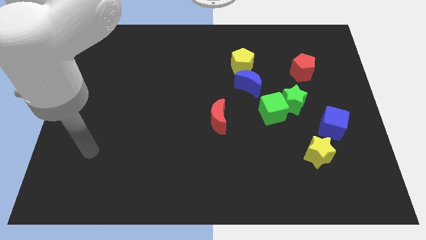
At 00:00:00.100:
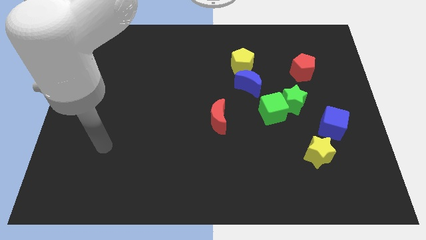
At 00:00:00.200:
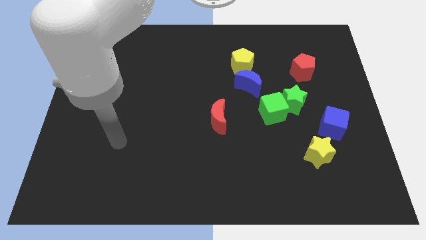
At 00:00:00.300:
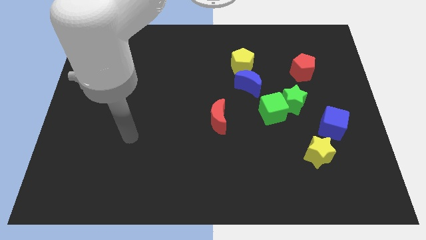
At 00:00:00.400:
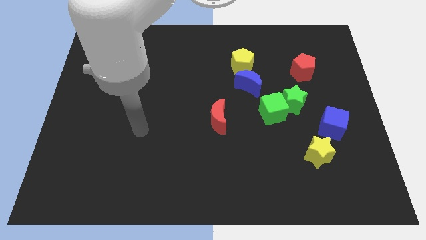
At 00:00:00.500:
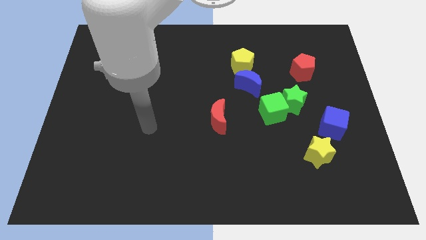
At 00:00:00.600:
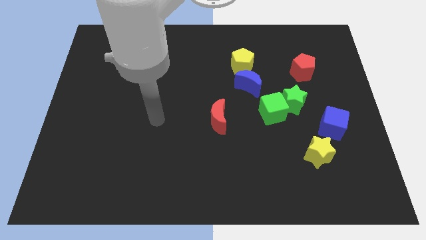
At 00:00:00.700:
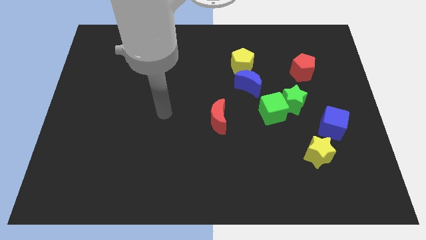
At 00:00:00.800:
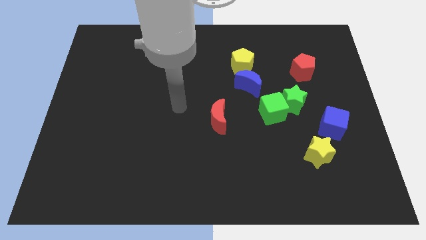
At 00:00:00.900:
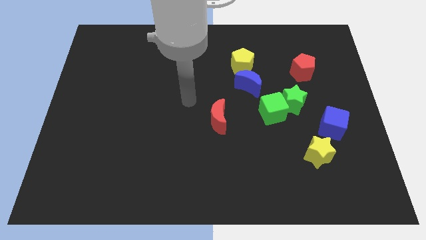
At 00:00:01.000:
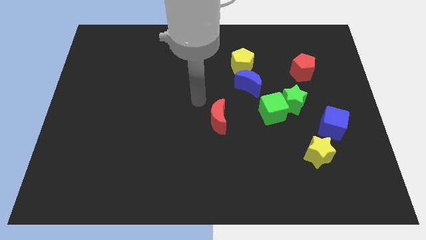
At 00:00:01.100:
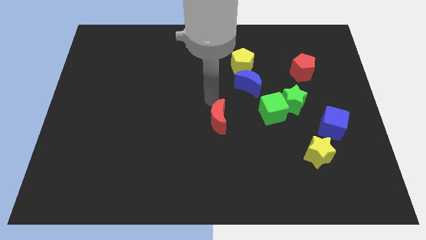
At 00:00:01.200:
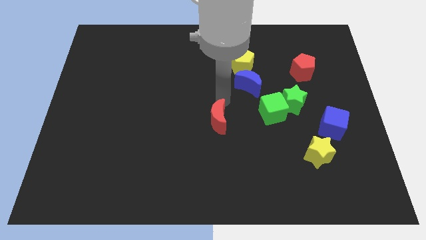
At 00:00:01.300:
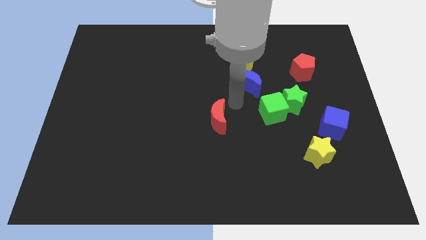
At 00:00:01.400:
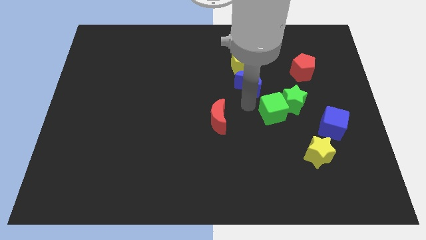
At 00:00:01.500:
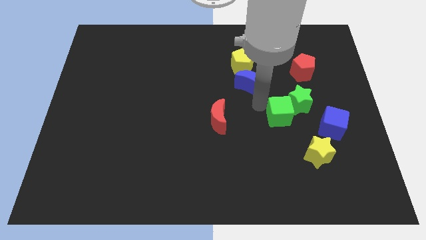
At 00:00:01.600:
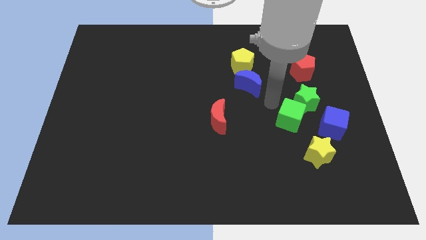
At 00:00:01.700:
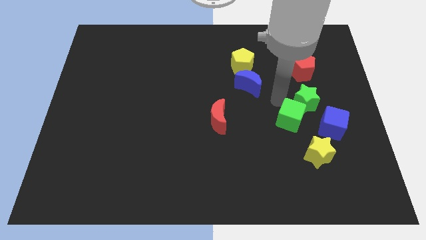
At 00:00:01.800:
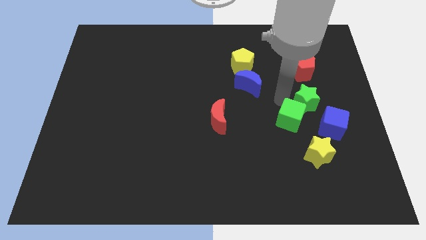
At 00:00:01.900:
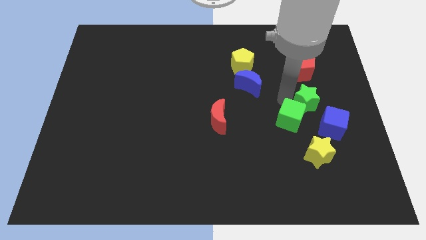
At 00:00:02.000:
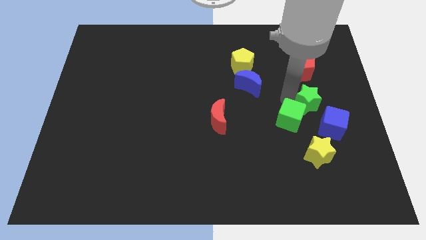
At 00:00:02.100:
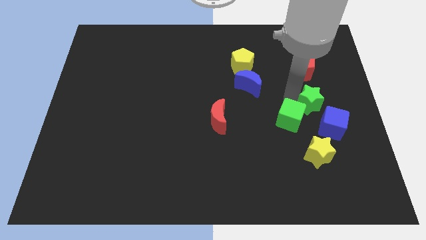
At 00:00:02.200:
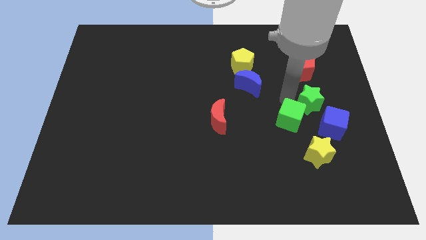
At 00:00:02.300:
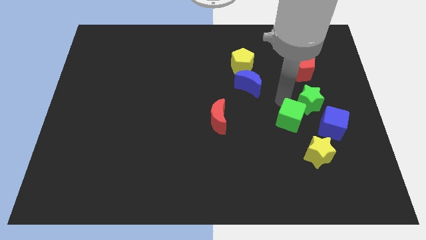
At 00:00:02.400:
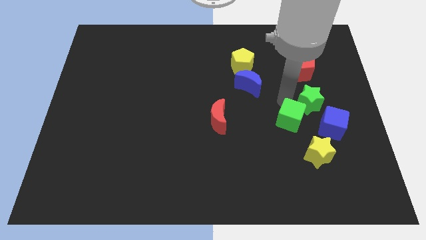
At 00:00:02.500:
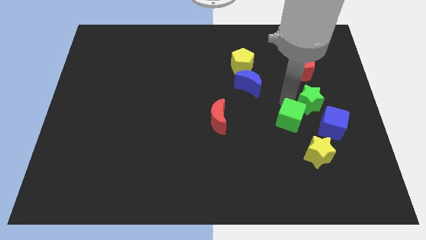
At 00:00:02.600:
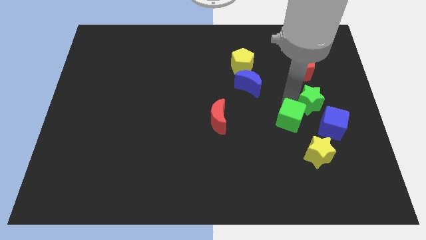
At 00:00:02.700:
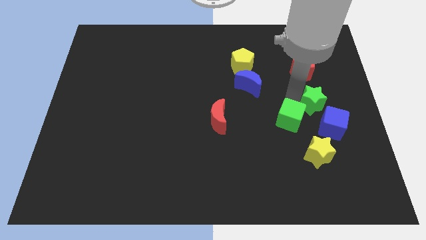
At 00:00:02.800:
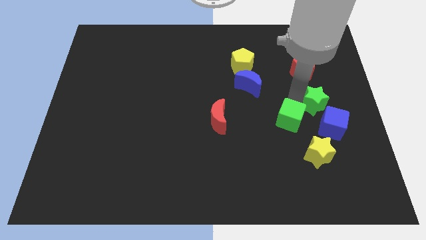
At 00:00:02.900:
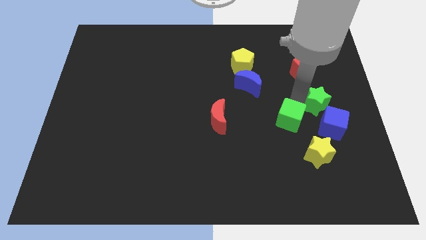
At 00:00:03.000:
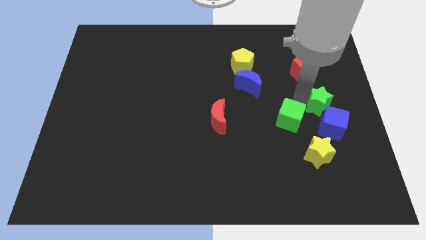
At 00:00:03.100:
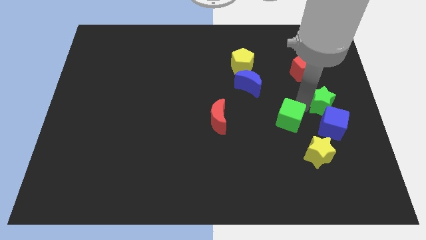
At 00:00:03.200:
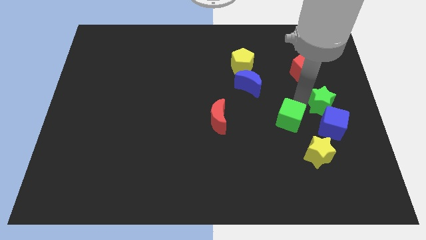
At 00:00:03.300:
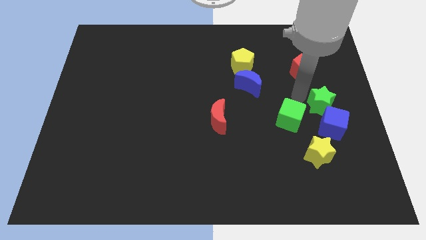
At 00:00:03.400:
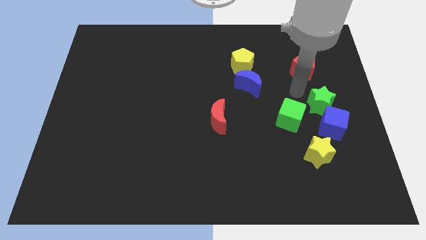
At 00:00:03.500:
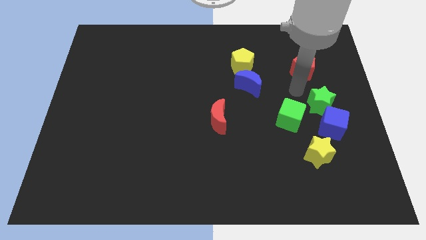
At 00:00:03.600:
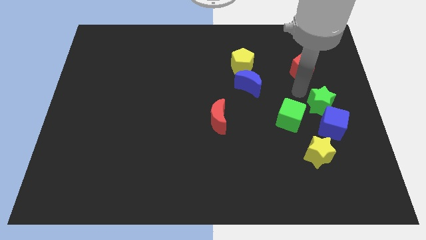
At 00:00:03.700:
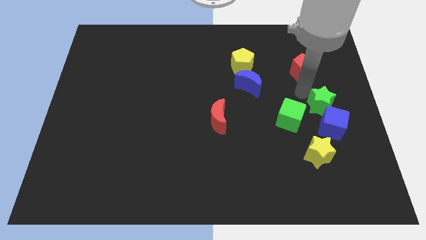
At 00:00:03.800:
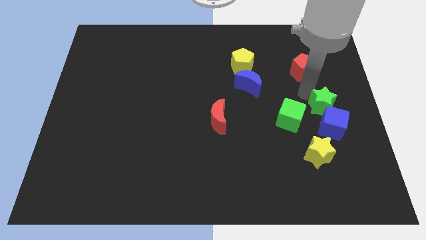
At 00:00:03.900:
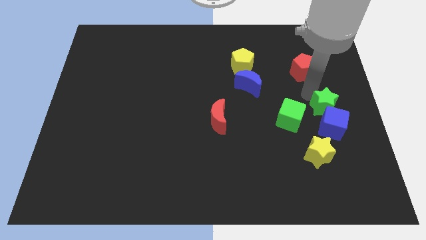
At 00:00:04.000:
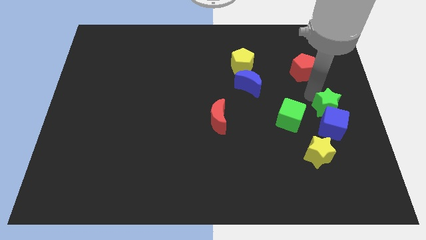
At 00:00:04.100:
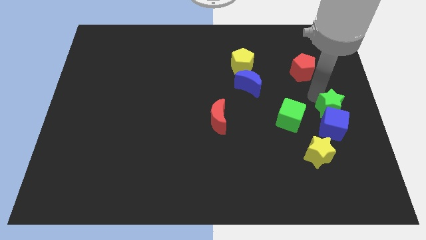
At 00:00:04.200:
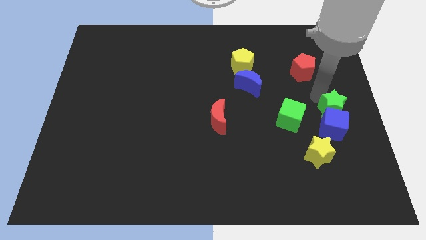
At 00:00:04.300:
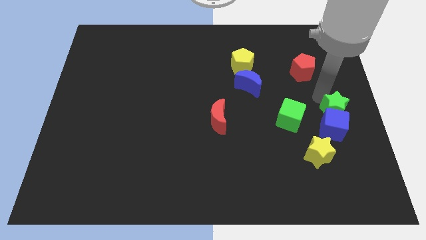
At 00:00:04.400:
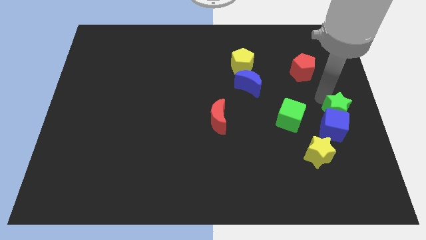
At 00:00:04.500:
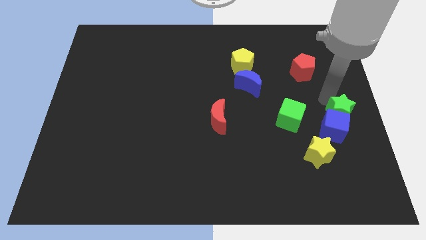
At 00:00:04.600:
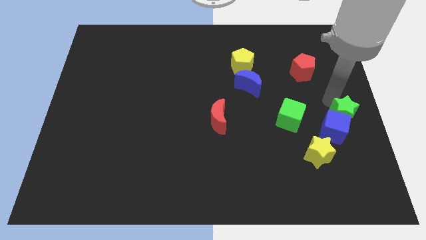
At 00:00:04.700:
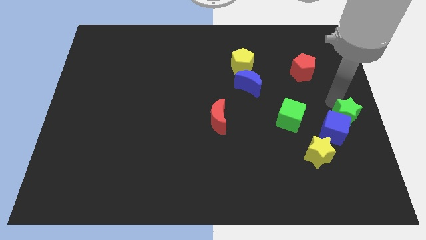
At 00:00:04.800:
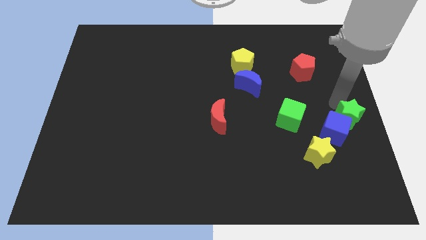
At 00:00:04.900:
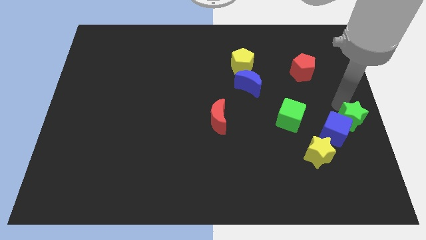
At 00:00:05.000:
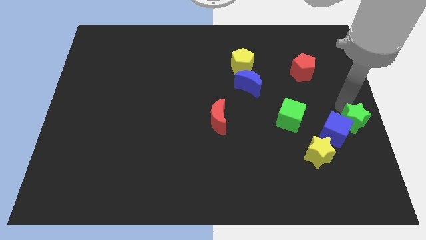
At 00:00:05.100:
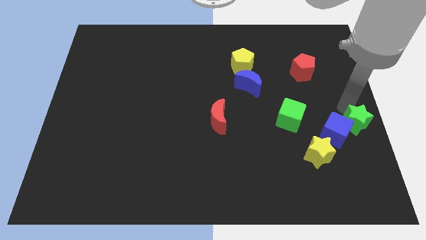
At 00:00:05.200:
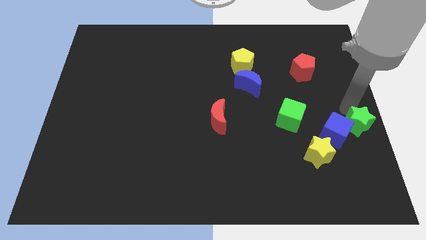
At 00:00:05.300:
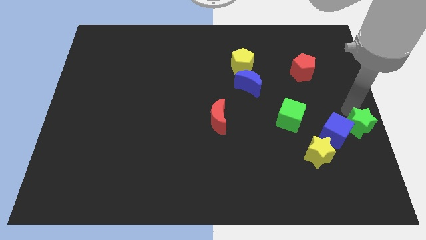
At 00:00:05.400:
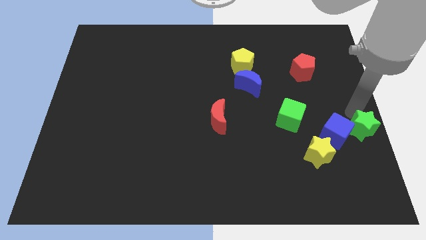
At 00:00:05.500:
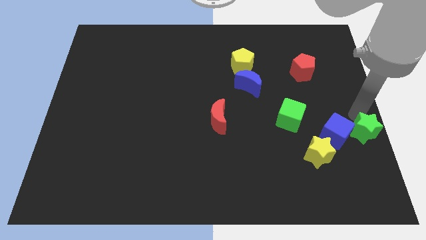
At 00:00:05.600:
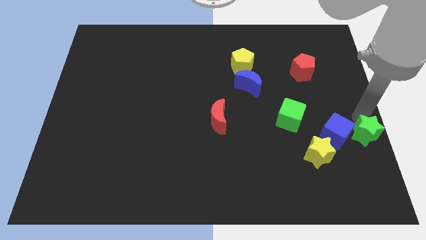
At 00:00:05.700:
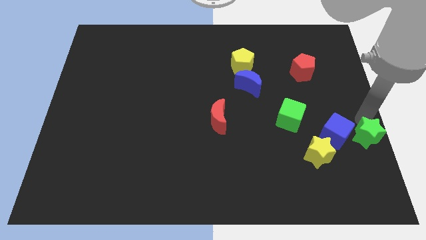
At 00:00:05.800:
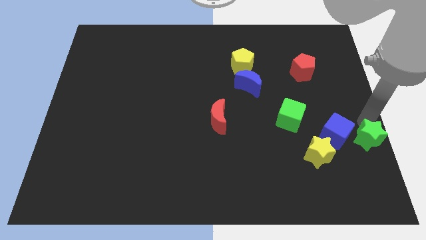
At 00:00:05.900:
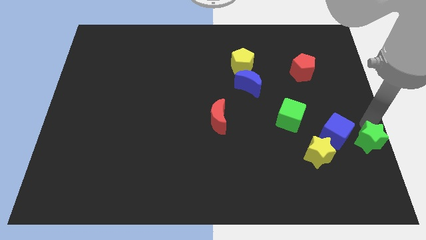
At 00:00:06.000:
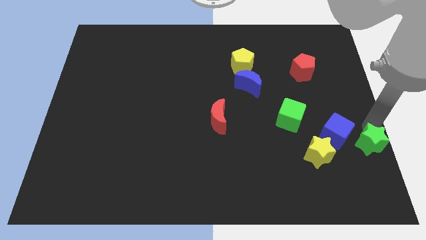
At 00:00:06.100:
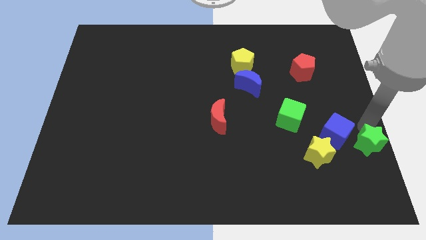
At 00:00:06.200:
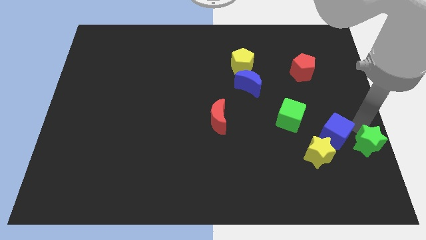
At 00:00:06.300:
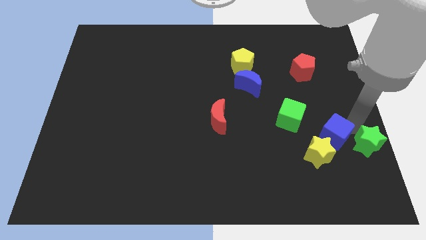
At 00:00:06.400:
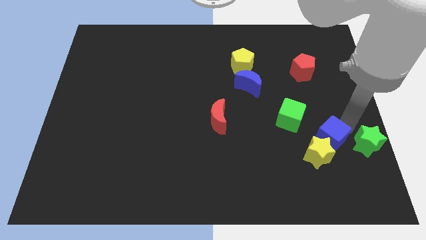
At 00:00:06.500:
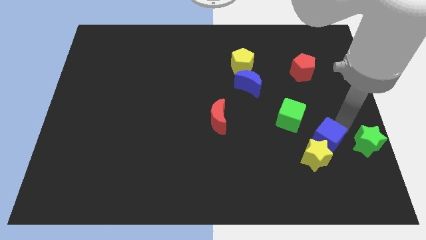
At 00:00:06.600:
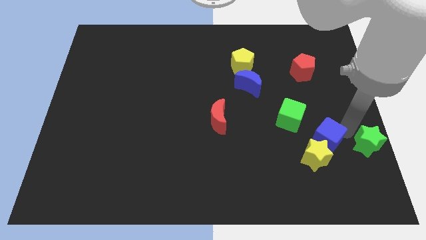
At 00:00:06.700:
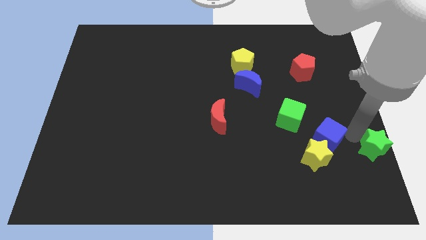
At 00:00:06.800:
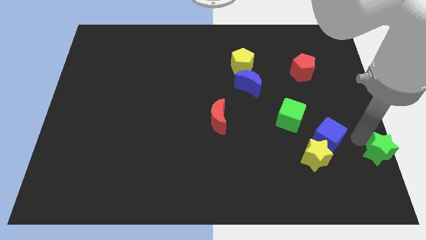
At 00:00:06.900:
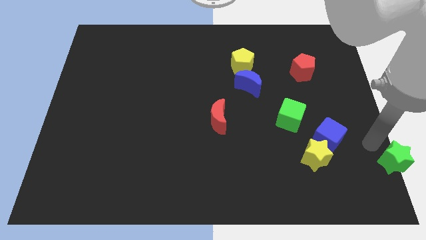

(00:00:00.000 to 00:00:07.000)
push the green star to the bottom right
